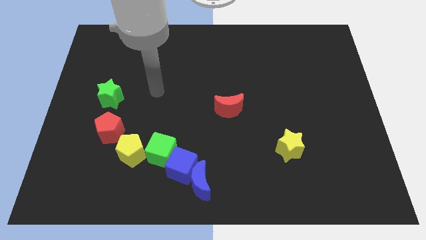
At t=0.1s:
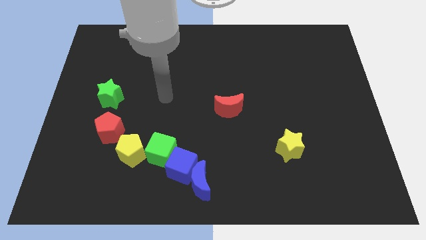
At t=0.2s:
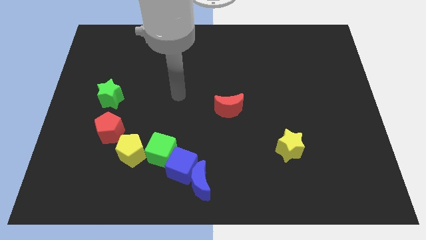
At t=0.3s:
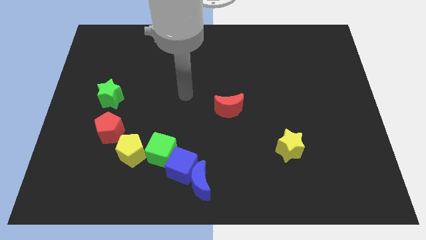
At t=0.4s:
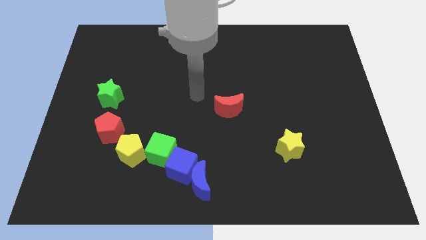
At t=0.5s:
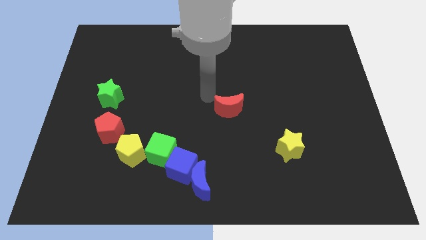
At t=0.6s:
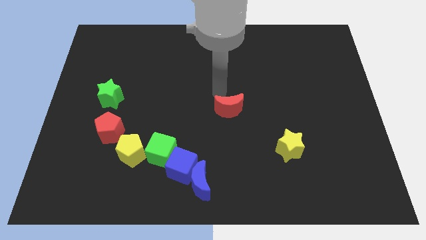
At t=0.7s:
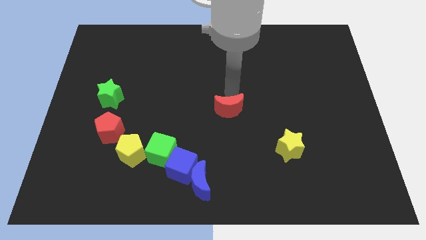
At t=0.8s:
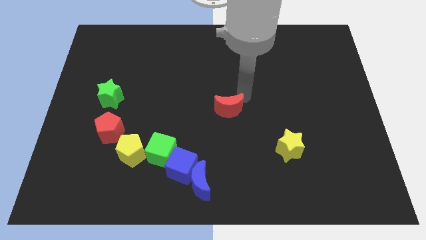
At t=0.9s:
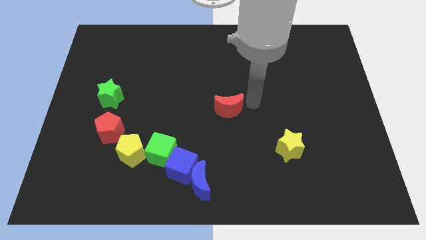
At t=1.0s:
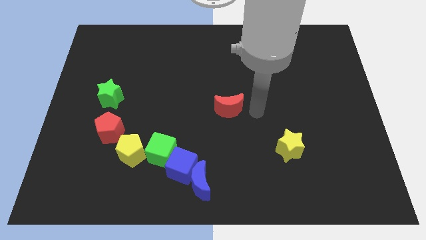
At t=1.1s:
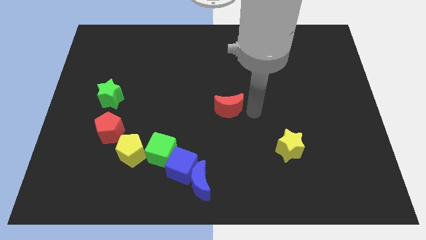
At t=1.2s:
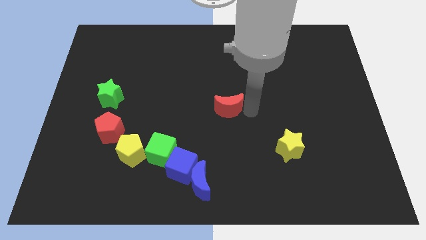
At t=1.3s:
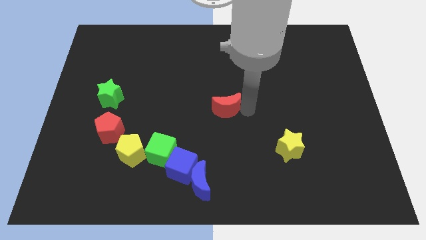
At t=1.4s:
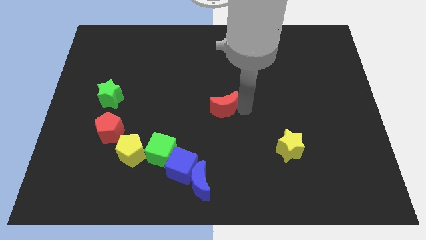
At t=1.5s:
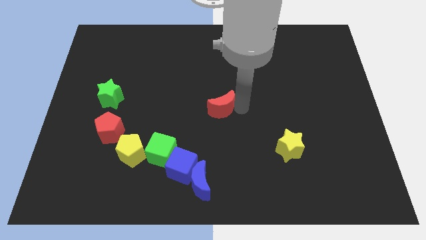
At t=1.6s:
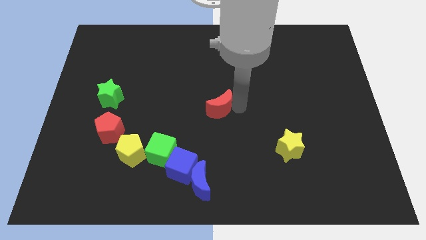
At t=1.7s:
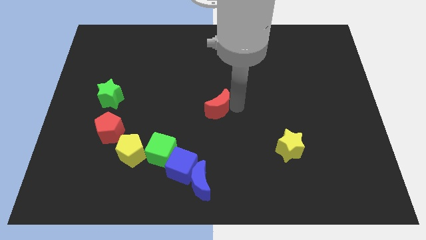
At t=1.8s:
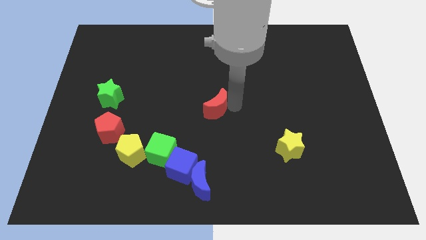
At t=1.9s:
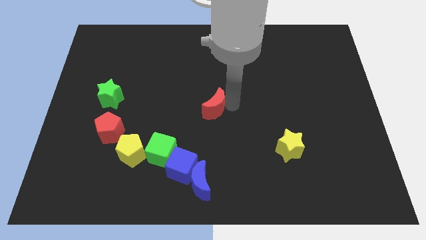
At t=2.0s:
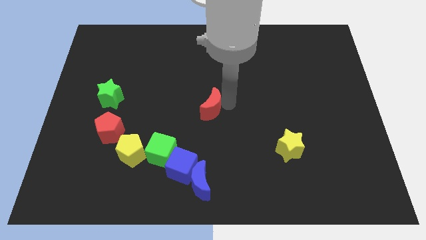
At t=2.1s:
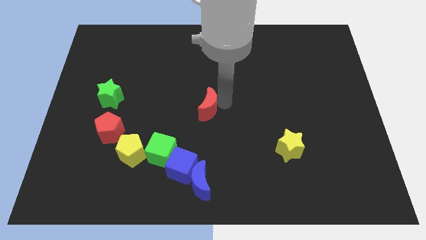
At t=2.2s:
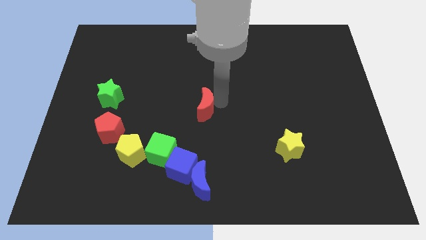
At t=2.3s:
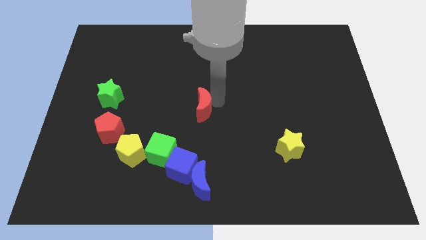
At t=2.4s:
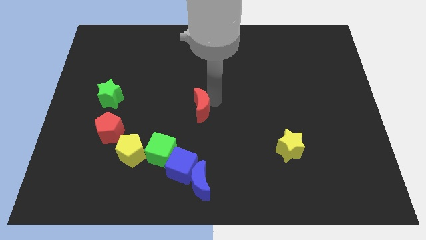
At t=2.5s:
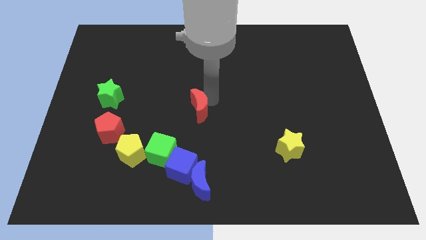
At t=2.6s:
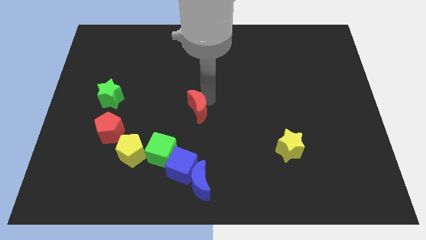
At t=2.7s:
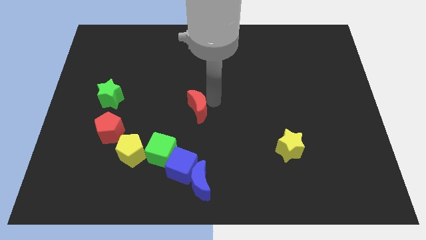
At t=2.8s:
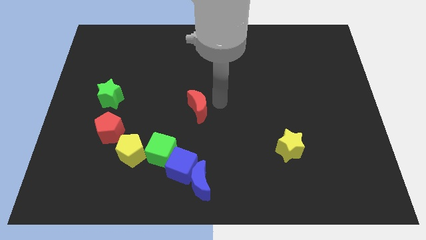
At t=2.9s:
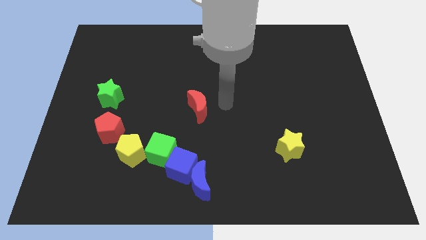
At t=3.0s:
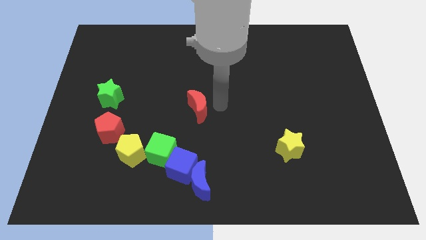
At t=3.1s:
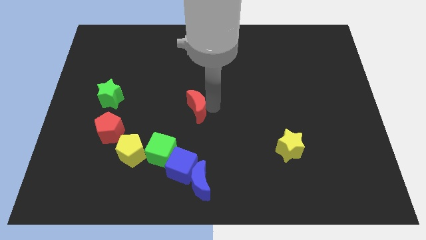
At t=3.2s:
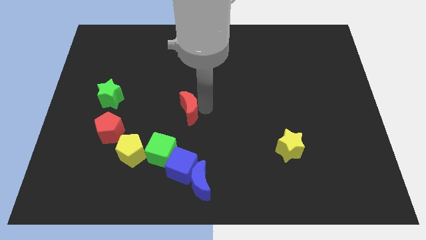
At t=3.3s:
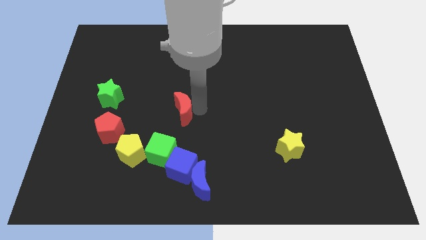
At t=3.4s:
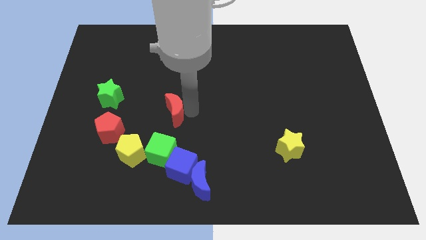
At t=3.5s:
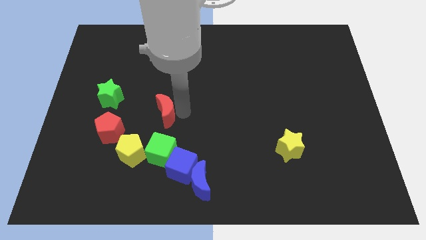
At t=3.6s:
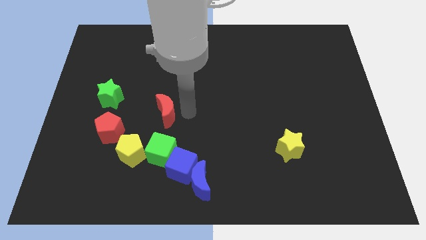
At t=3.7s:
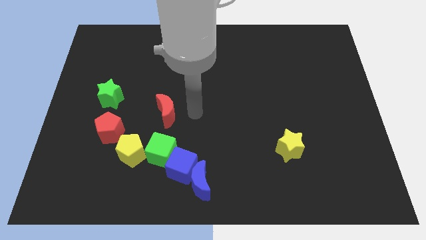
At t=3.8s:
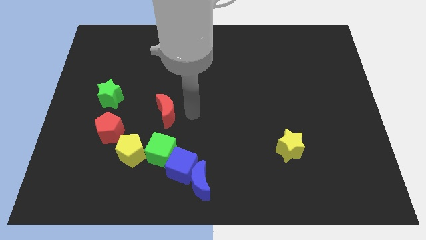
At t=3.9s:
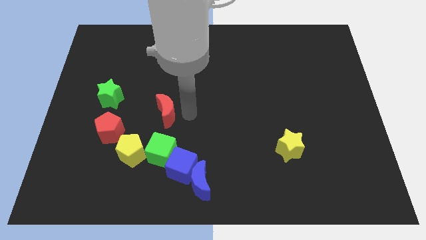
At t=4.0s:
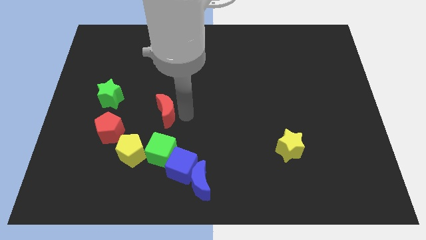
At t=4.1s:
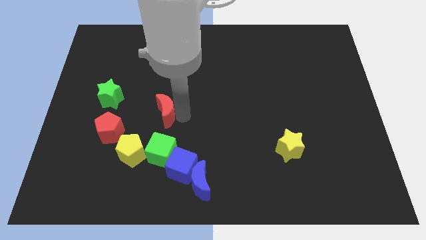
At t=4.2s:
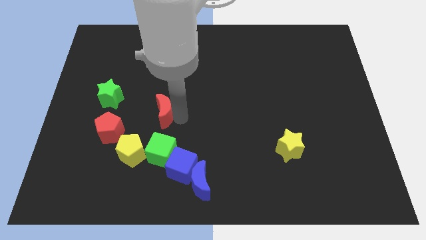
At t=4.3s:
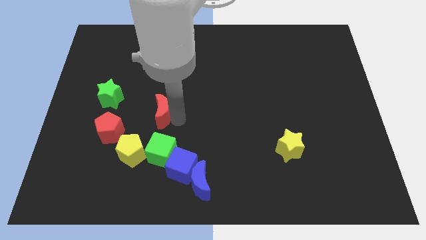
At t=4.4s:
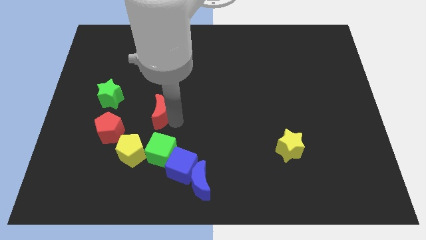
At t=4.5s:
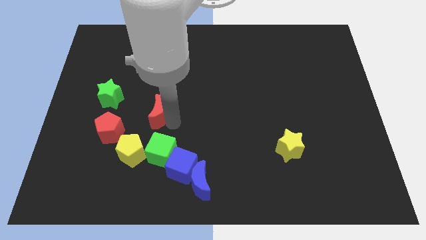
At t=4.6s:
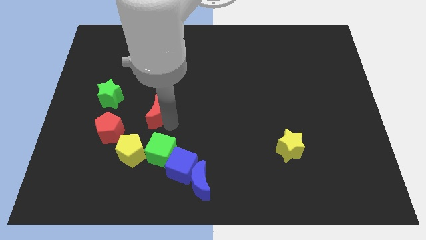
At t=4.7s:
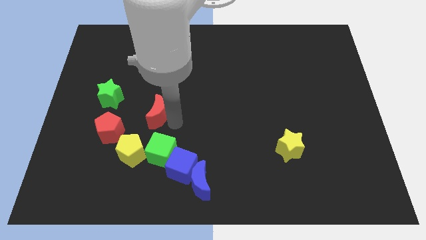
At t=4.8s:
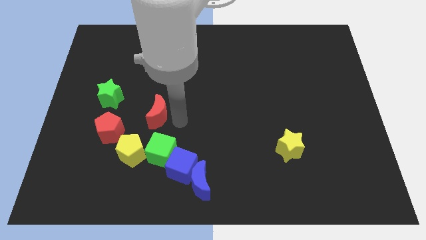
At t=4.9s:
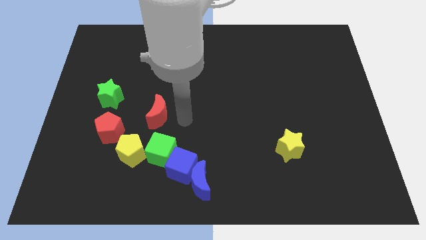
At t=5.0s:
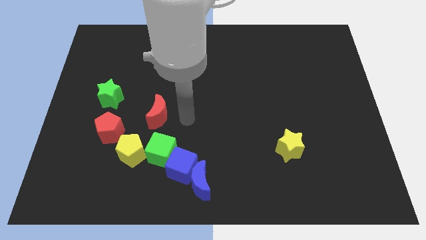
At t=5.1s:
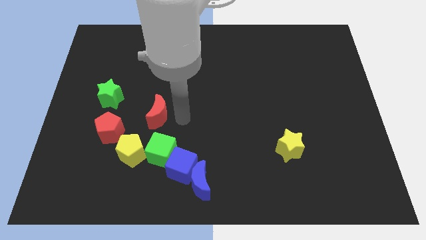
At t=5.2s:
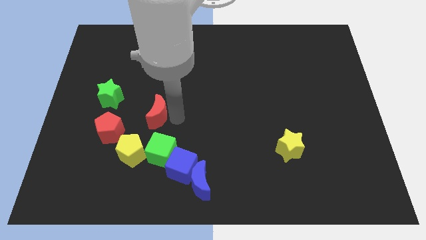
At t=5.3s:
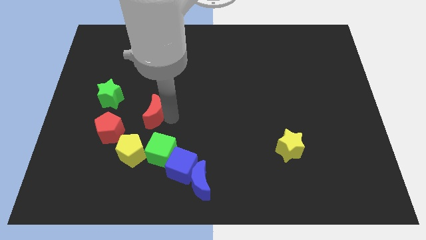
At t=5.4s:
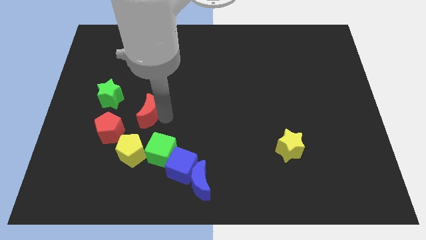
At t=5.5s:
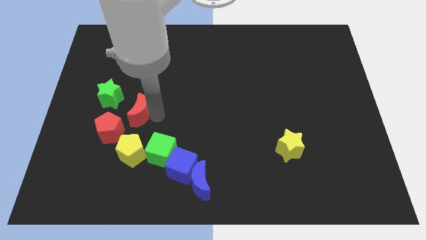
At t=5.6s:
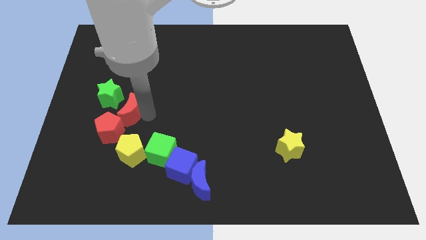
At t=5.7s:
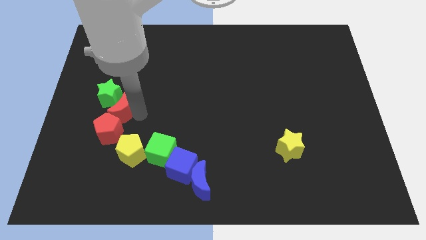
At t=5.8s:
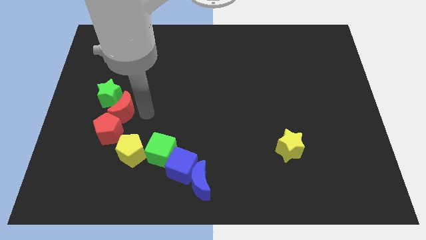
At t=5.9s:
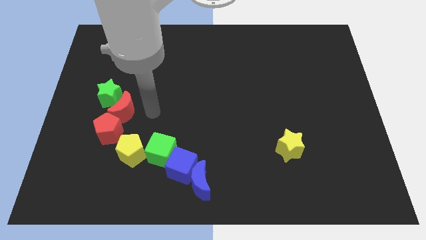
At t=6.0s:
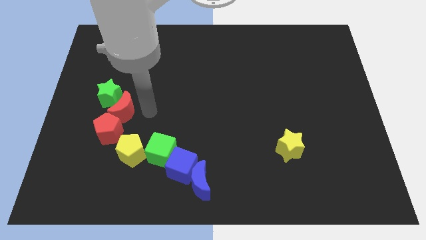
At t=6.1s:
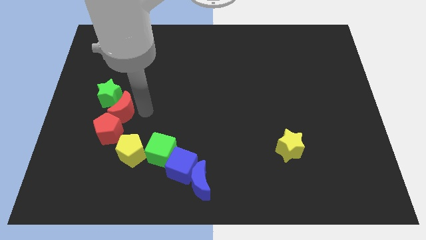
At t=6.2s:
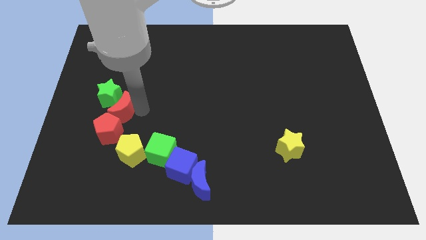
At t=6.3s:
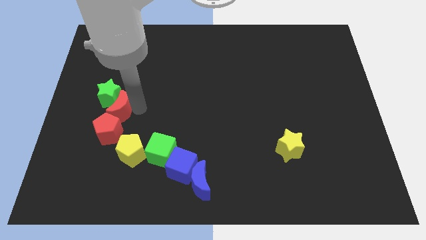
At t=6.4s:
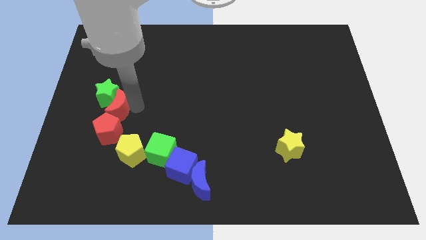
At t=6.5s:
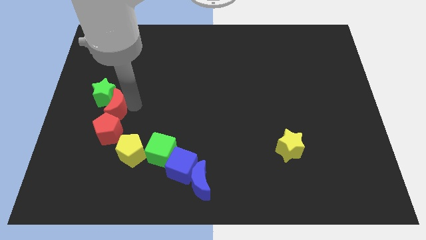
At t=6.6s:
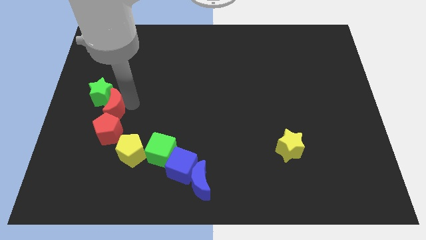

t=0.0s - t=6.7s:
slide the red moon to the top left side of the red pentagon

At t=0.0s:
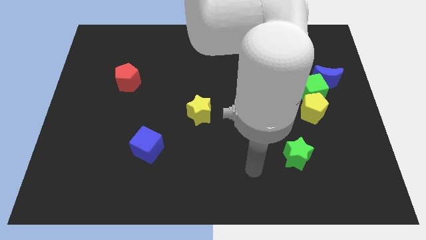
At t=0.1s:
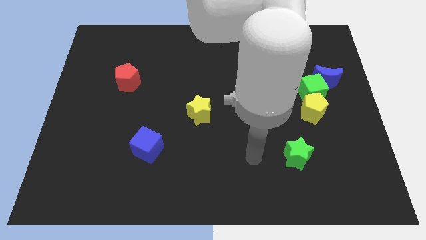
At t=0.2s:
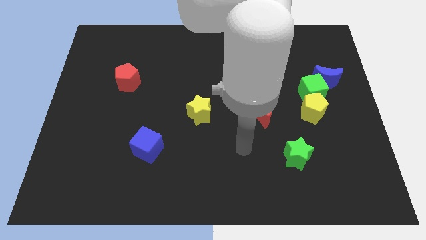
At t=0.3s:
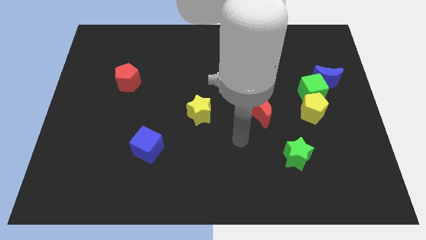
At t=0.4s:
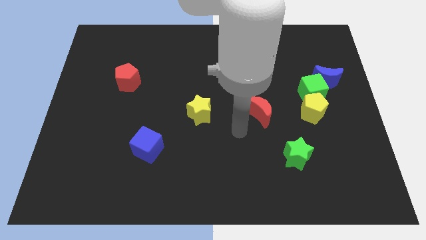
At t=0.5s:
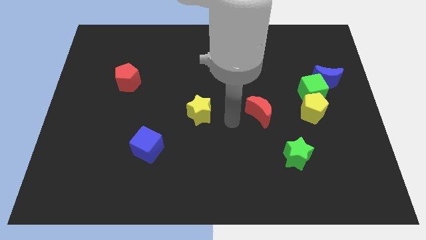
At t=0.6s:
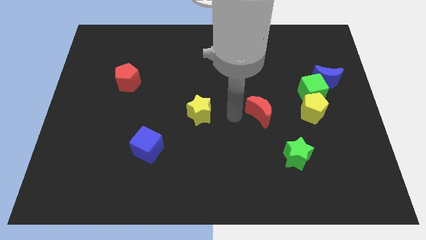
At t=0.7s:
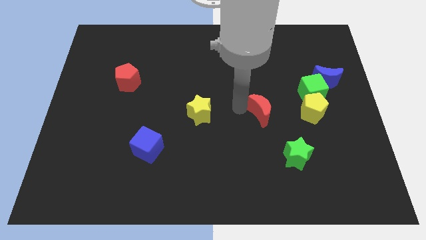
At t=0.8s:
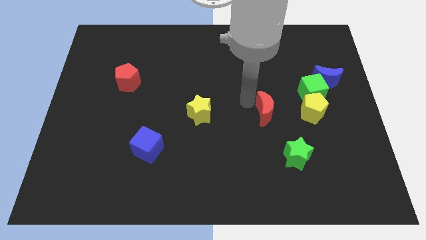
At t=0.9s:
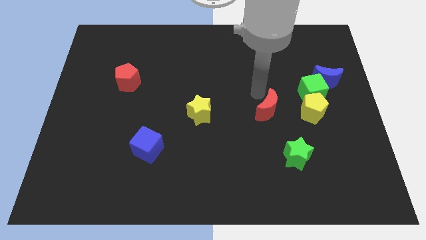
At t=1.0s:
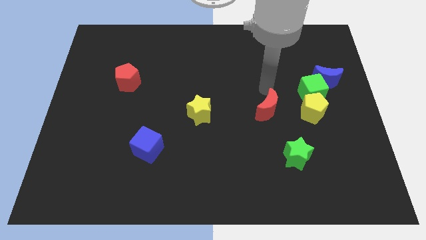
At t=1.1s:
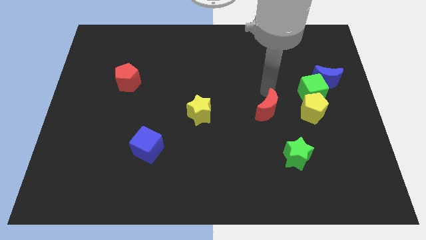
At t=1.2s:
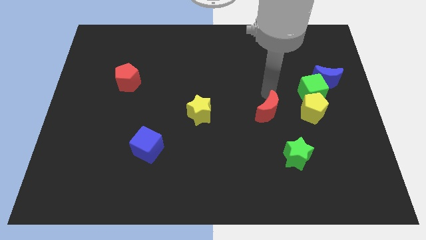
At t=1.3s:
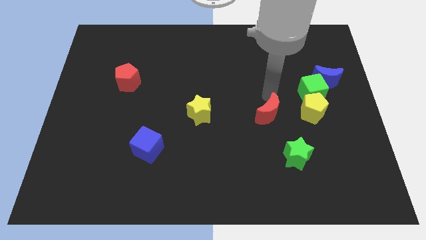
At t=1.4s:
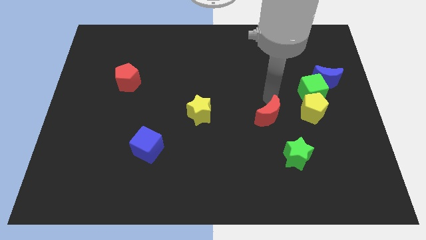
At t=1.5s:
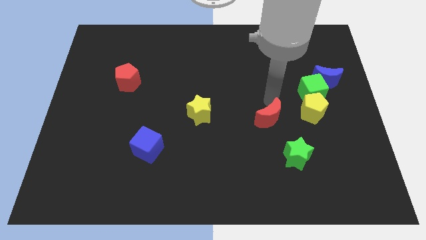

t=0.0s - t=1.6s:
push the red moon diagonally up and to the left of the green star
